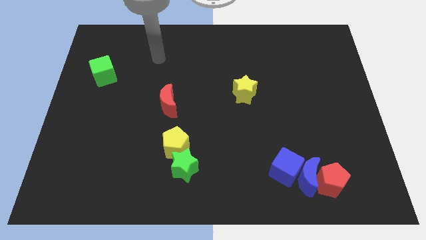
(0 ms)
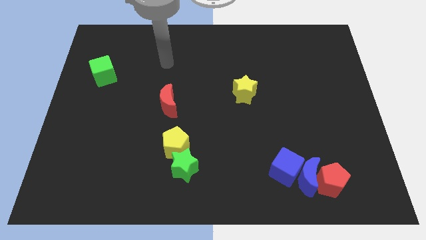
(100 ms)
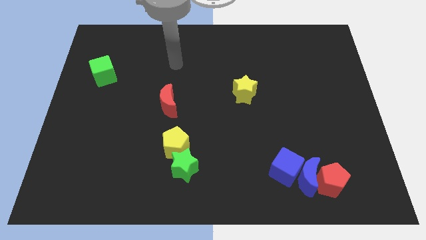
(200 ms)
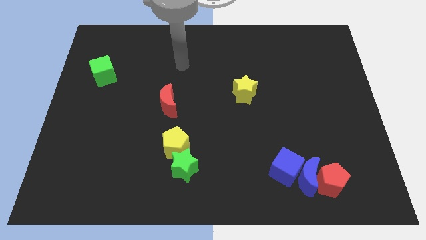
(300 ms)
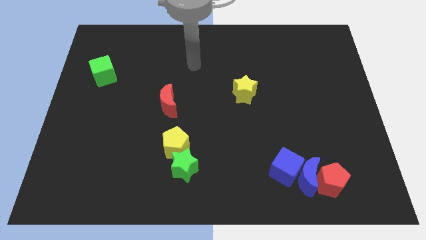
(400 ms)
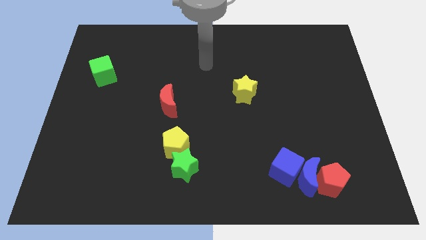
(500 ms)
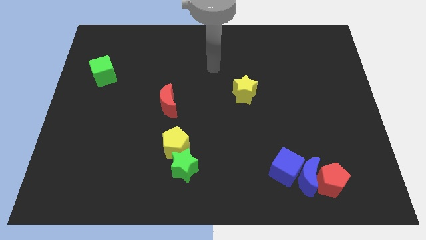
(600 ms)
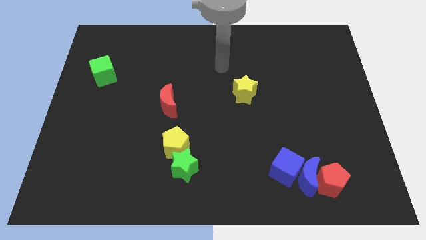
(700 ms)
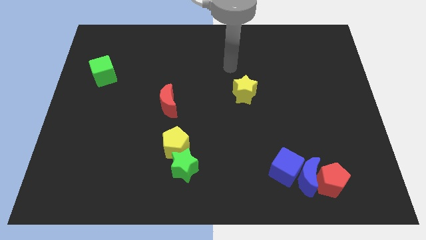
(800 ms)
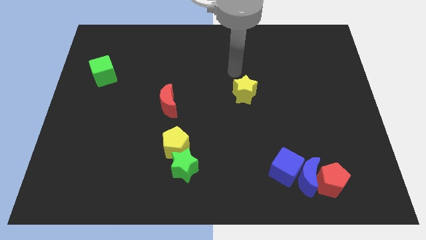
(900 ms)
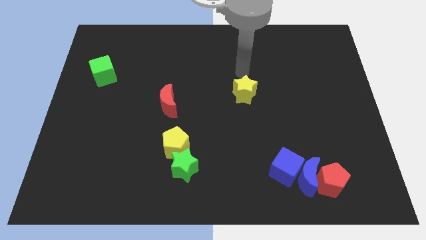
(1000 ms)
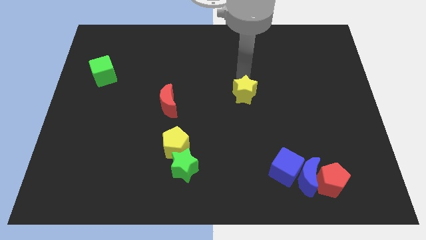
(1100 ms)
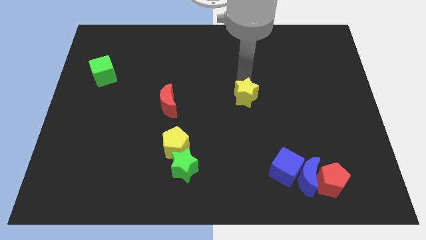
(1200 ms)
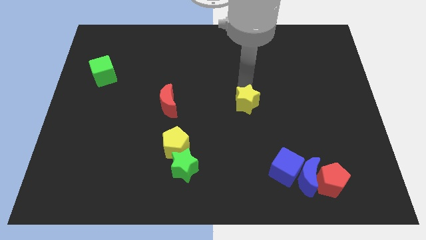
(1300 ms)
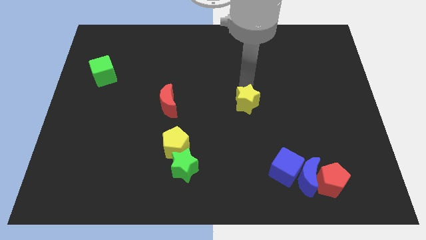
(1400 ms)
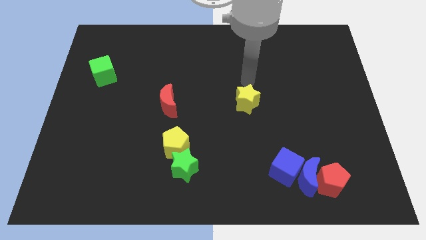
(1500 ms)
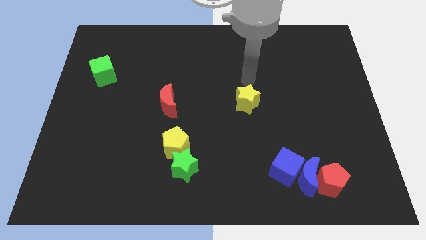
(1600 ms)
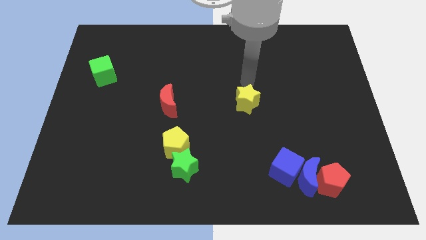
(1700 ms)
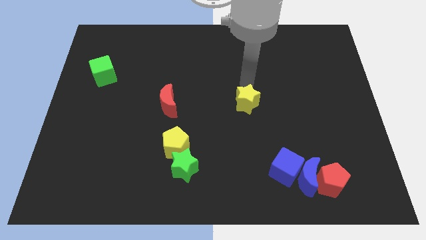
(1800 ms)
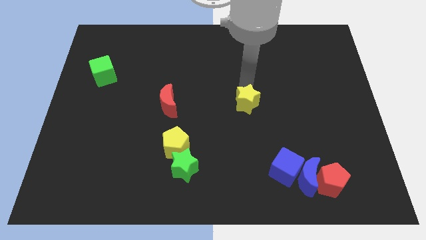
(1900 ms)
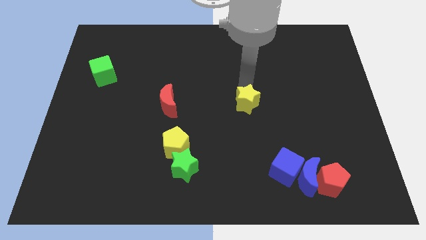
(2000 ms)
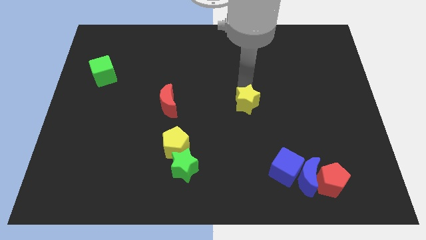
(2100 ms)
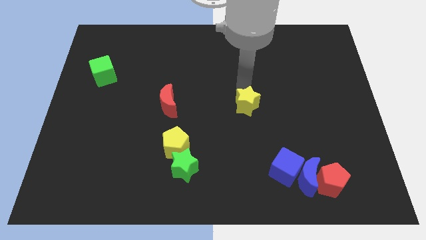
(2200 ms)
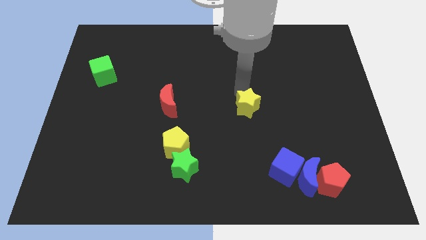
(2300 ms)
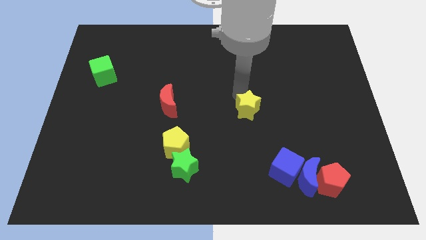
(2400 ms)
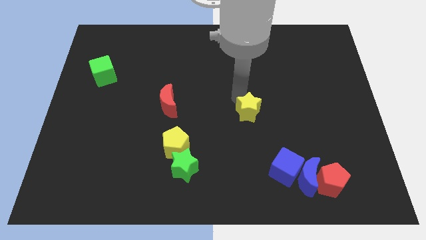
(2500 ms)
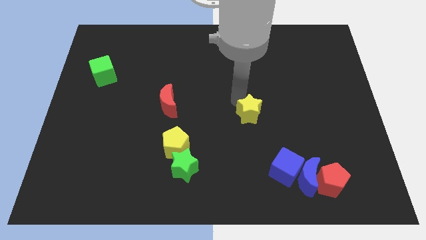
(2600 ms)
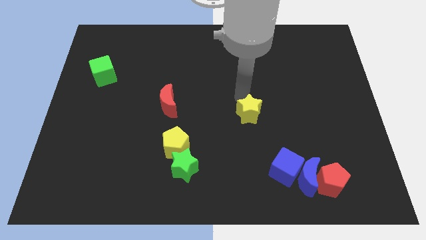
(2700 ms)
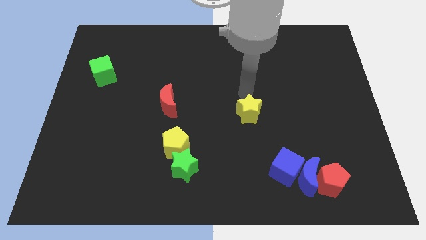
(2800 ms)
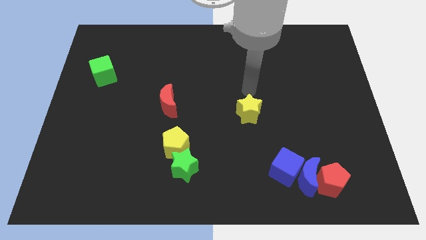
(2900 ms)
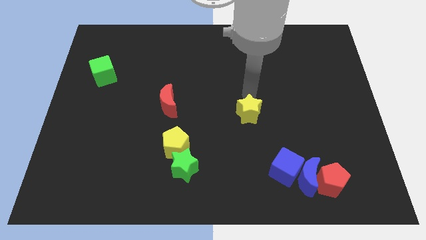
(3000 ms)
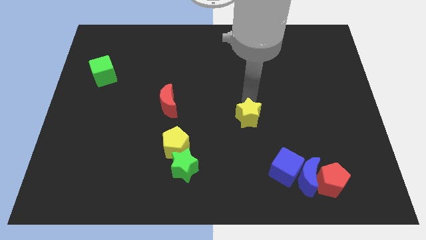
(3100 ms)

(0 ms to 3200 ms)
slightly move the yellow star downwards

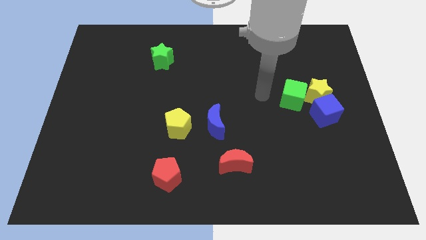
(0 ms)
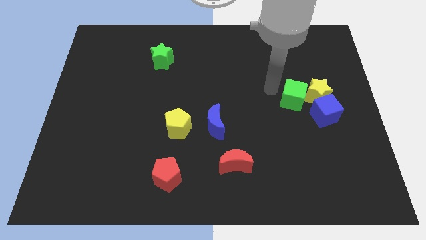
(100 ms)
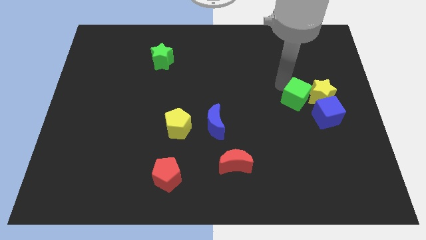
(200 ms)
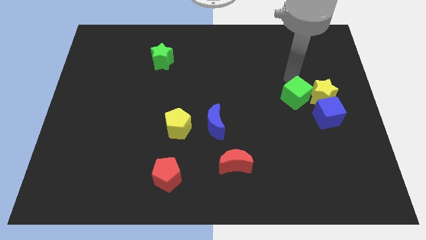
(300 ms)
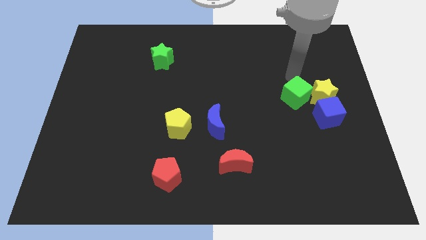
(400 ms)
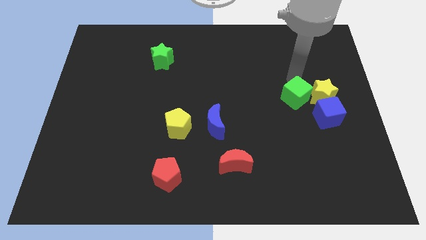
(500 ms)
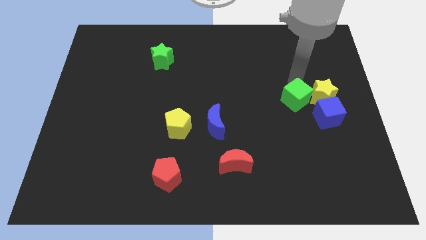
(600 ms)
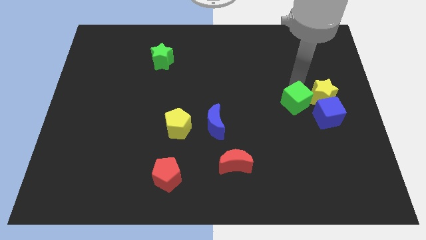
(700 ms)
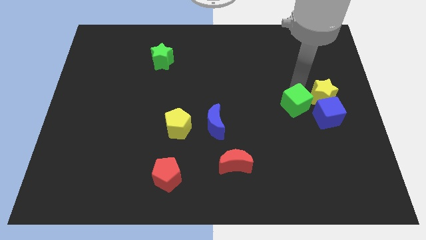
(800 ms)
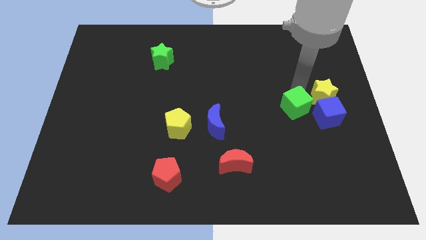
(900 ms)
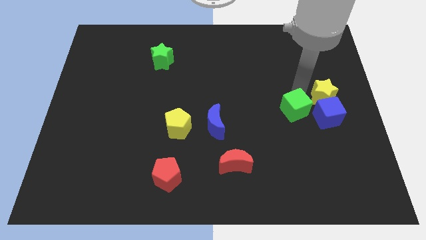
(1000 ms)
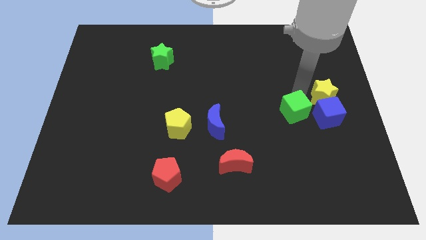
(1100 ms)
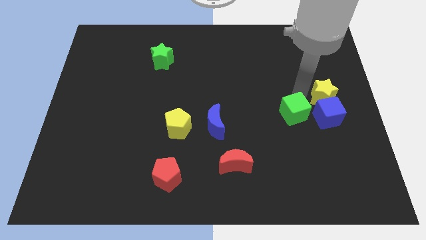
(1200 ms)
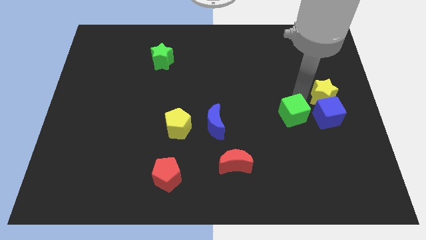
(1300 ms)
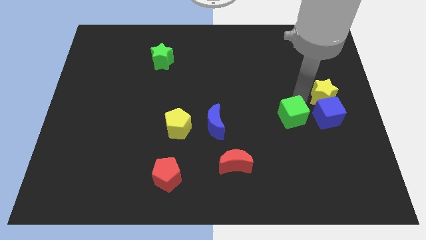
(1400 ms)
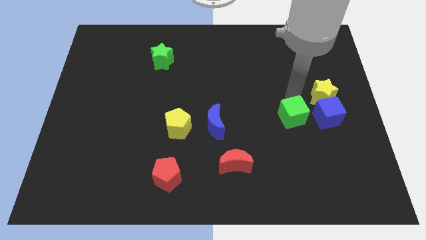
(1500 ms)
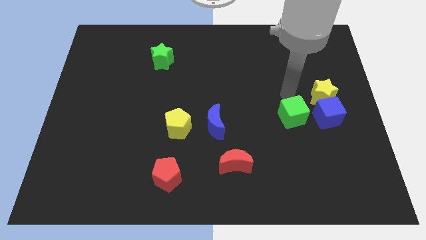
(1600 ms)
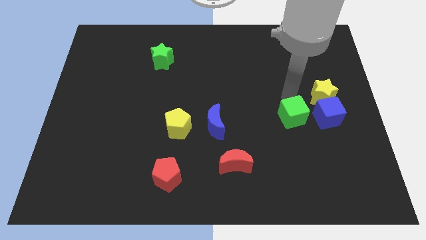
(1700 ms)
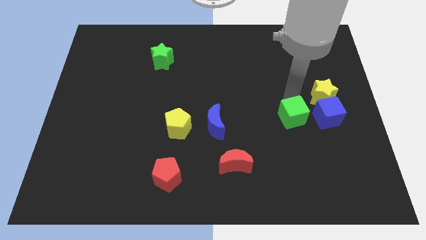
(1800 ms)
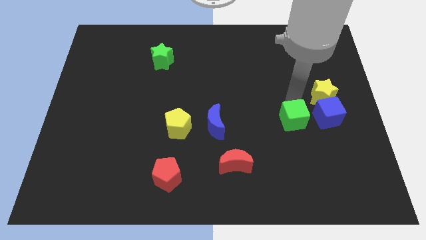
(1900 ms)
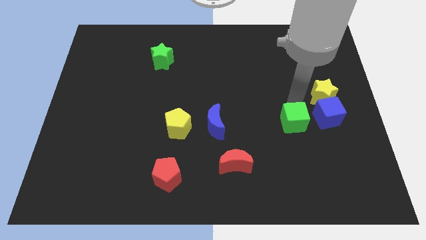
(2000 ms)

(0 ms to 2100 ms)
slightly move the green cube downwards

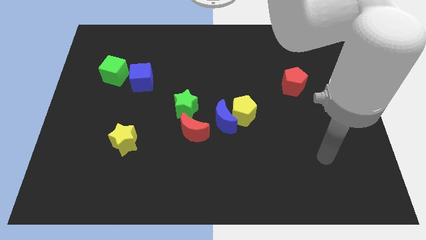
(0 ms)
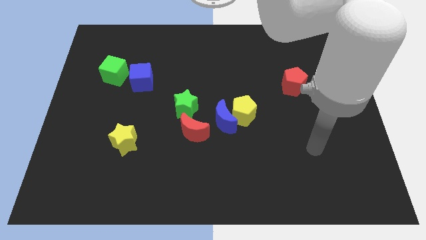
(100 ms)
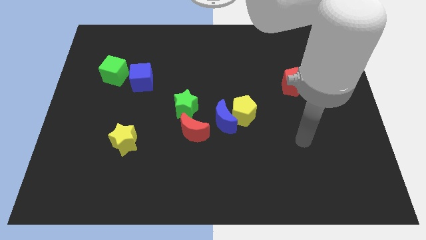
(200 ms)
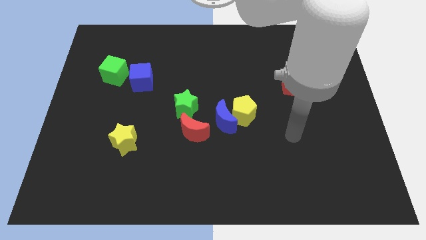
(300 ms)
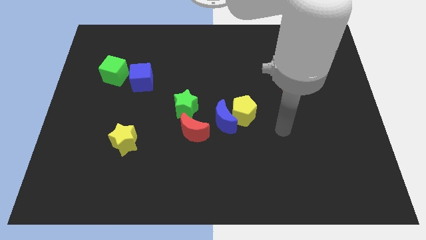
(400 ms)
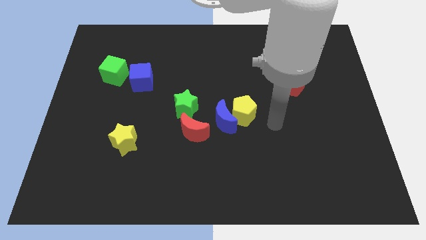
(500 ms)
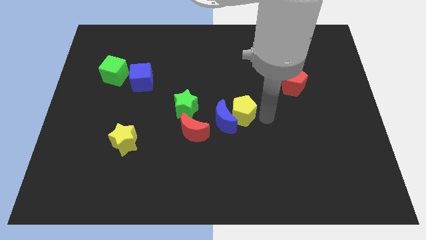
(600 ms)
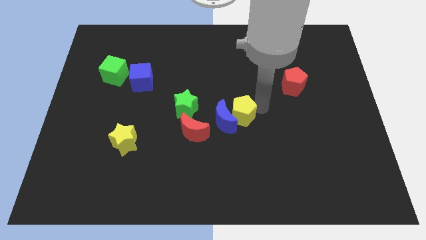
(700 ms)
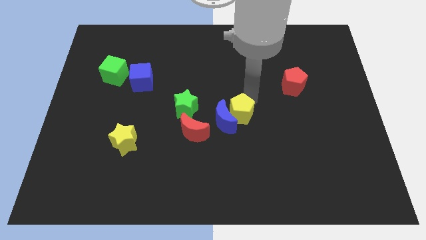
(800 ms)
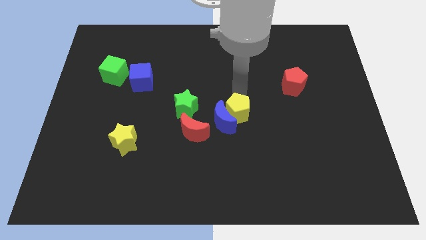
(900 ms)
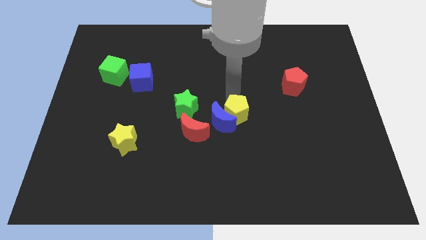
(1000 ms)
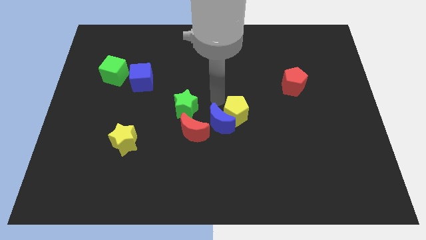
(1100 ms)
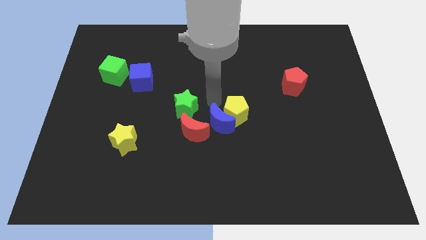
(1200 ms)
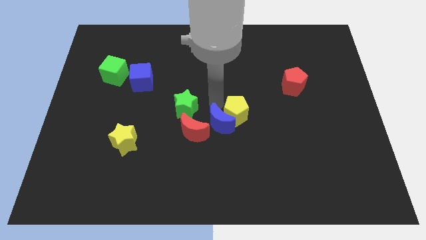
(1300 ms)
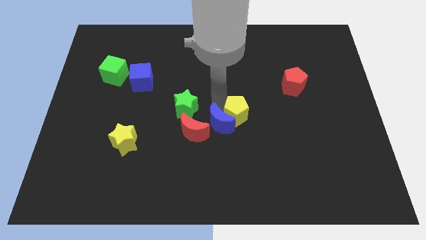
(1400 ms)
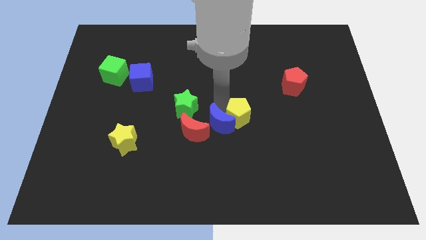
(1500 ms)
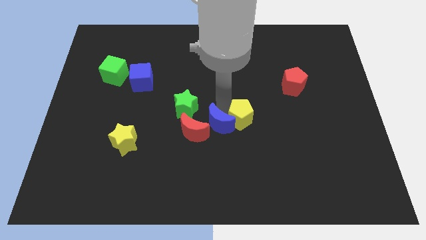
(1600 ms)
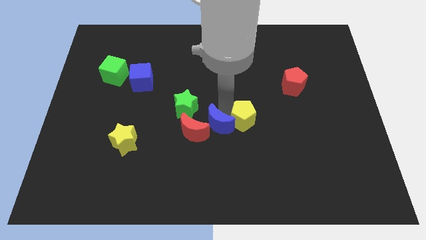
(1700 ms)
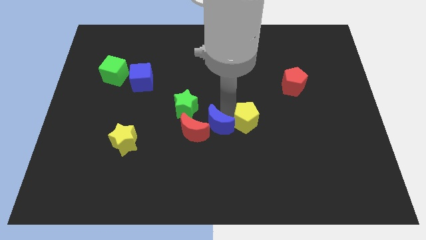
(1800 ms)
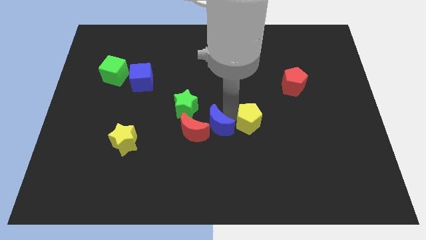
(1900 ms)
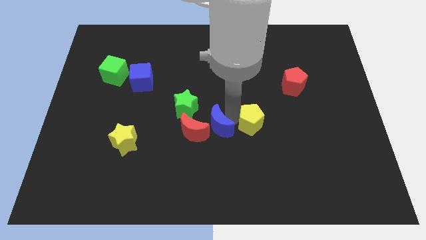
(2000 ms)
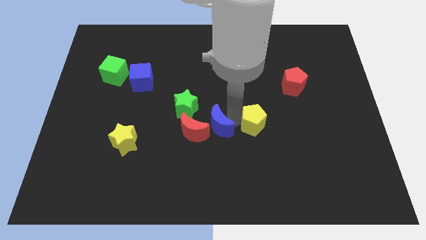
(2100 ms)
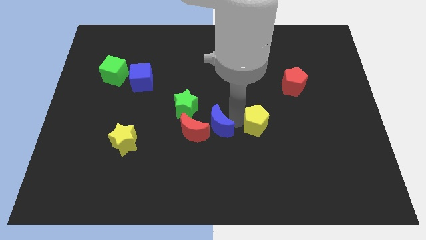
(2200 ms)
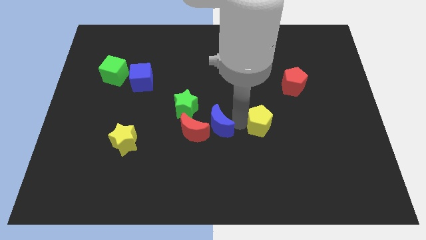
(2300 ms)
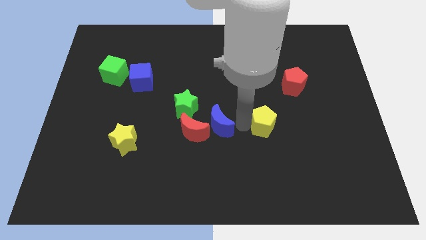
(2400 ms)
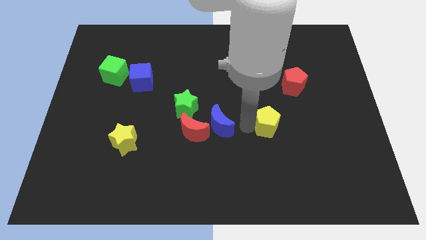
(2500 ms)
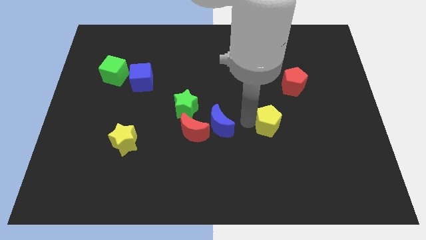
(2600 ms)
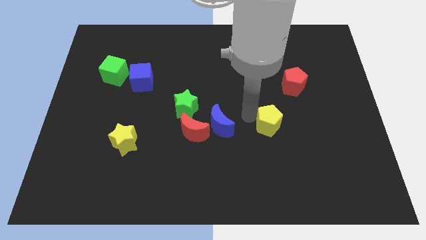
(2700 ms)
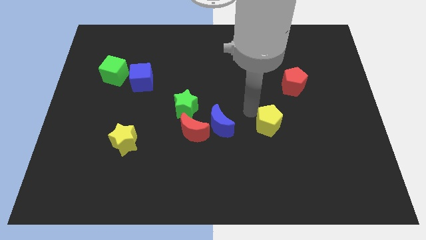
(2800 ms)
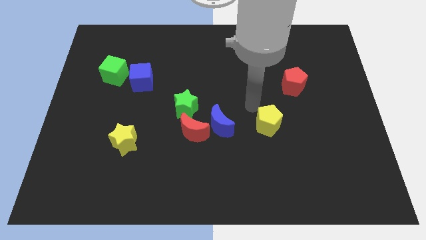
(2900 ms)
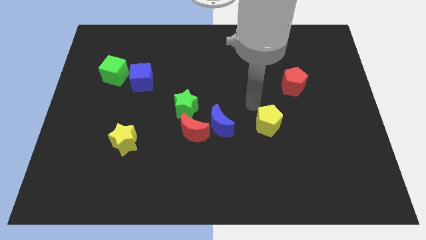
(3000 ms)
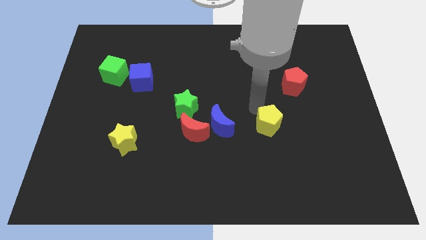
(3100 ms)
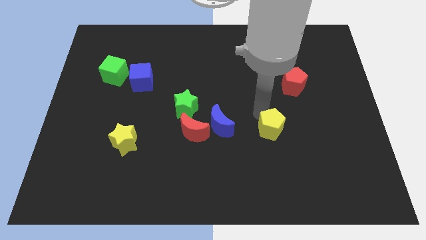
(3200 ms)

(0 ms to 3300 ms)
slightly move the yellow pentagon down and right diagonally
